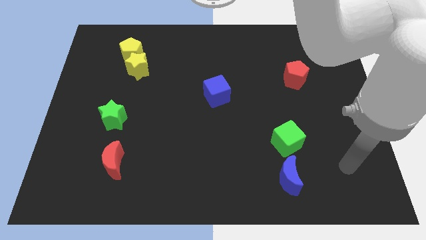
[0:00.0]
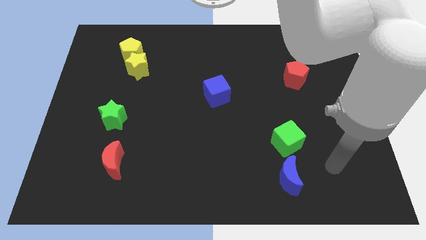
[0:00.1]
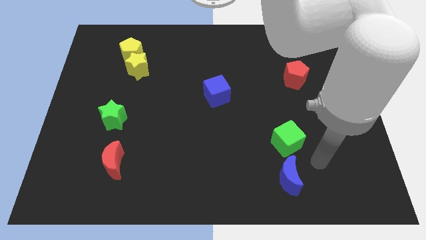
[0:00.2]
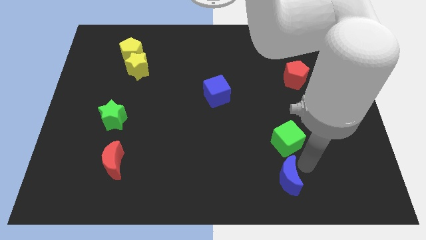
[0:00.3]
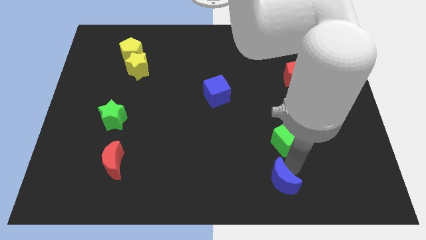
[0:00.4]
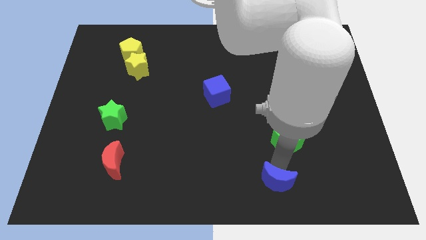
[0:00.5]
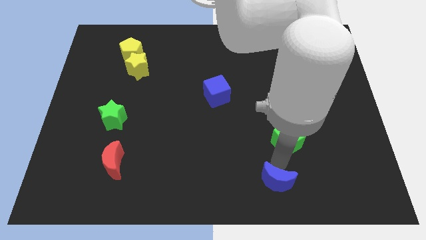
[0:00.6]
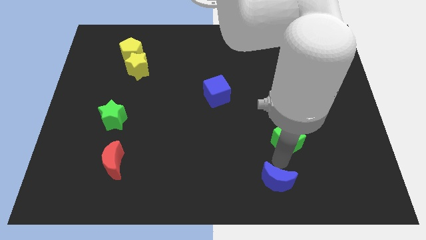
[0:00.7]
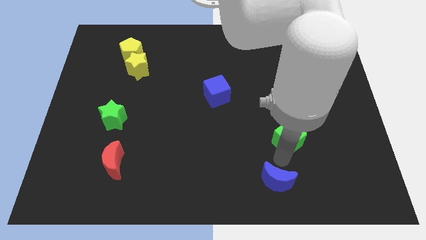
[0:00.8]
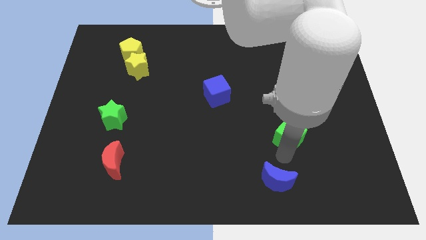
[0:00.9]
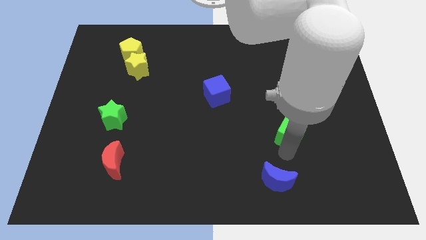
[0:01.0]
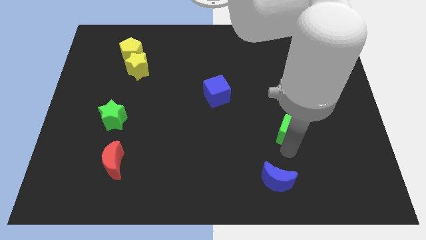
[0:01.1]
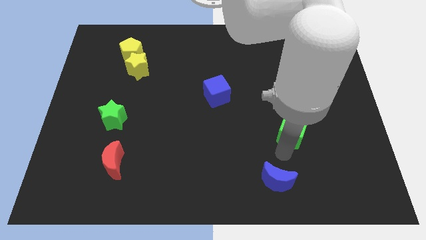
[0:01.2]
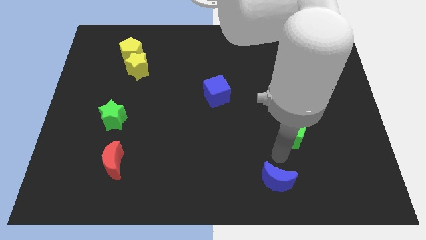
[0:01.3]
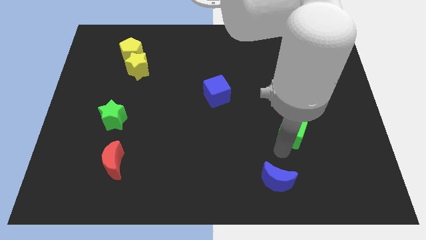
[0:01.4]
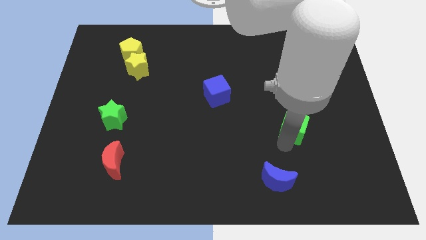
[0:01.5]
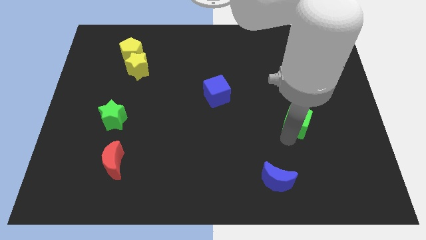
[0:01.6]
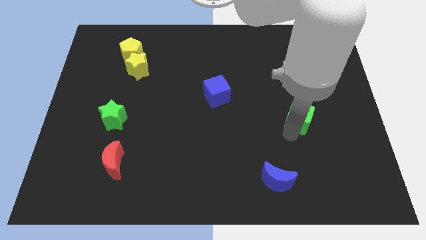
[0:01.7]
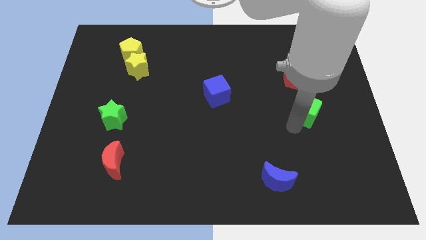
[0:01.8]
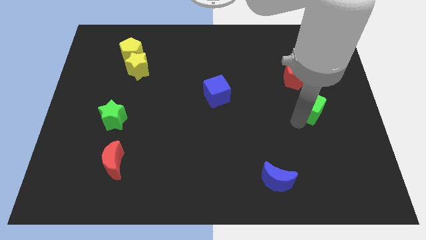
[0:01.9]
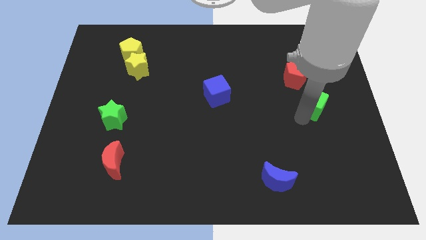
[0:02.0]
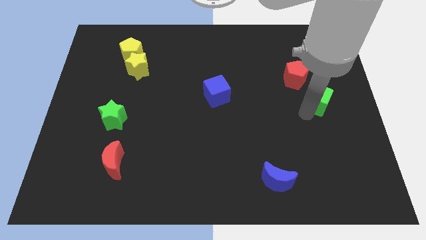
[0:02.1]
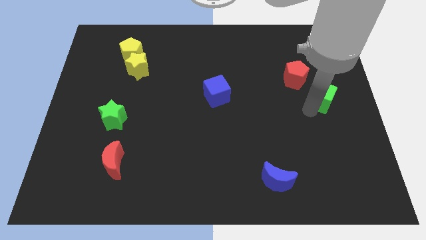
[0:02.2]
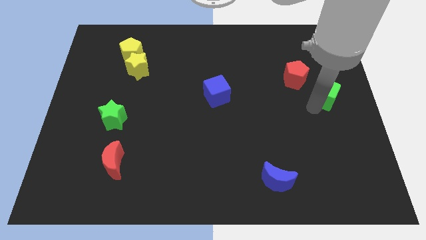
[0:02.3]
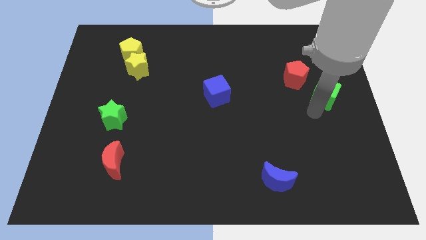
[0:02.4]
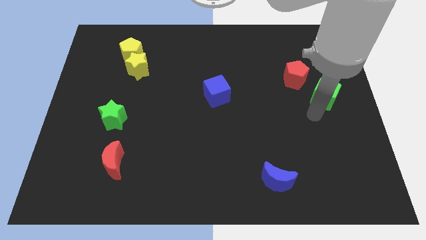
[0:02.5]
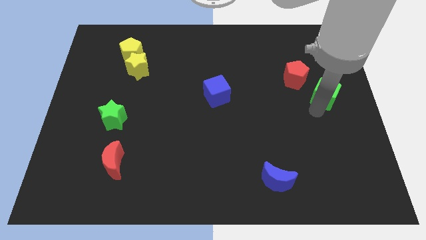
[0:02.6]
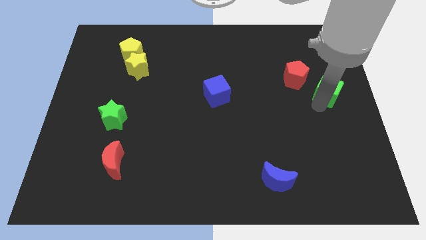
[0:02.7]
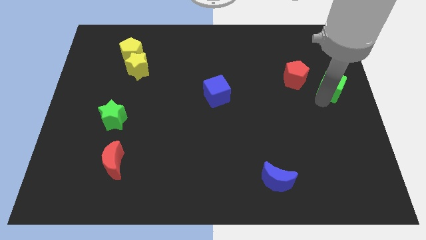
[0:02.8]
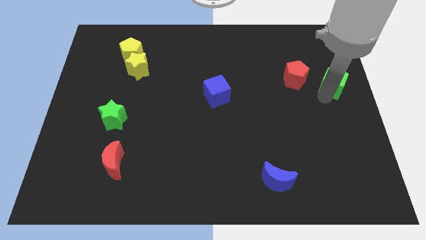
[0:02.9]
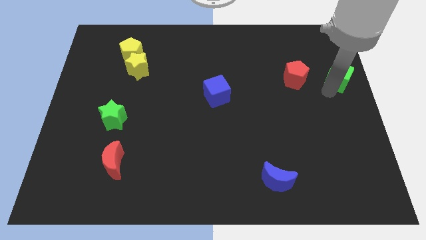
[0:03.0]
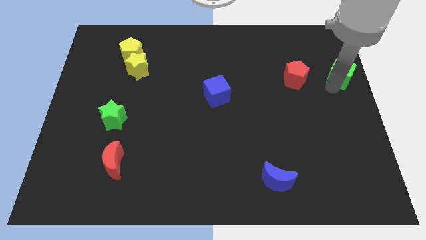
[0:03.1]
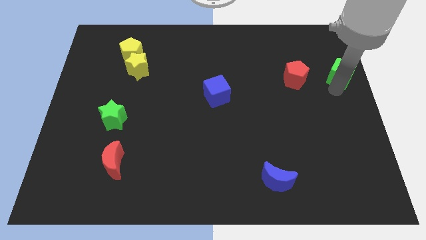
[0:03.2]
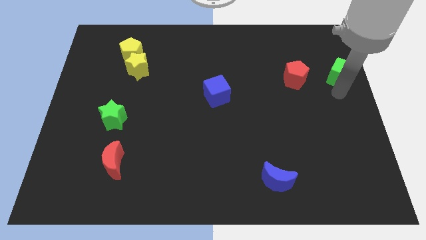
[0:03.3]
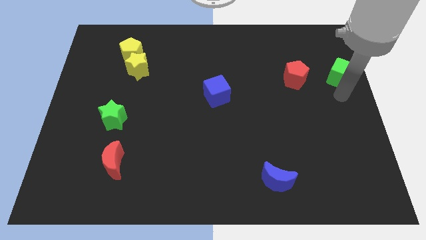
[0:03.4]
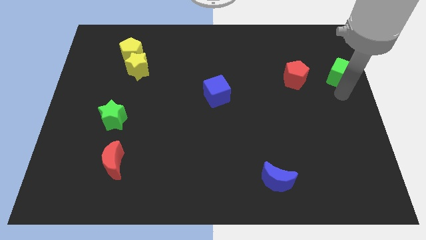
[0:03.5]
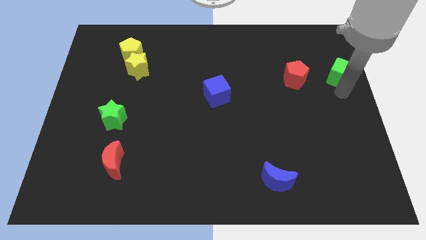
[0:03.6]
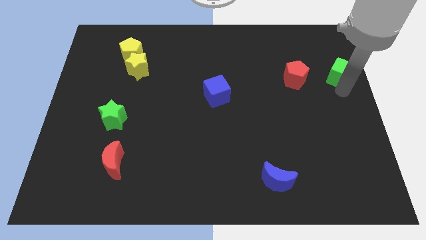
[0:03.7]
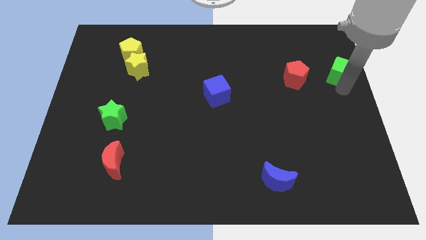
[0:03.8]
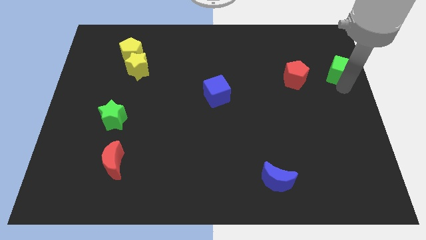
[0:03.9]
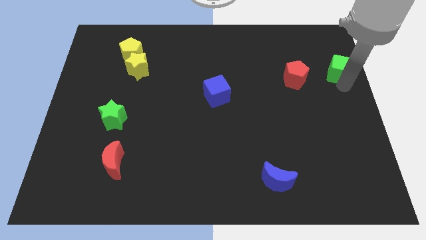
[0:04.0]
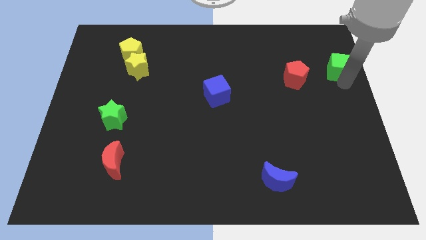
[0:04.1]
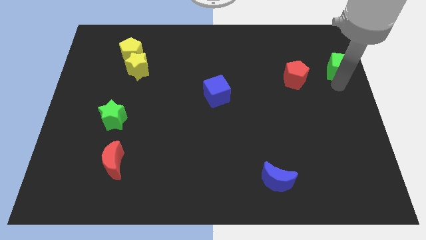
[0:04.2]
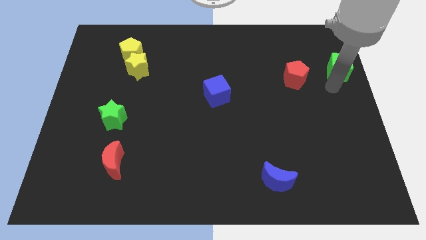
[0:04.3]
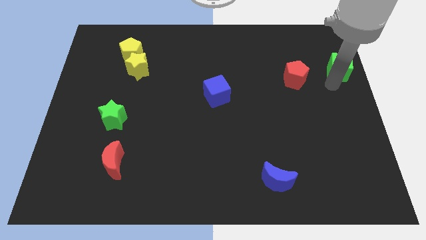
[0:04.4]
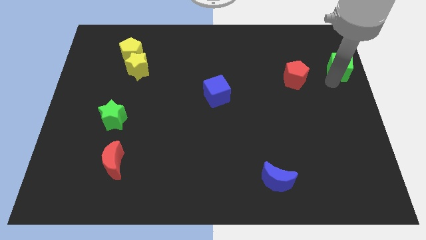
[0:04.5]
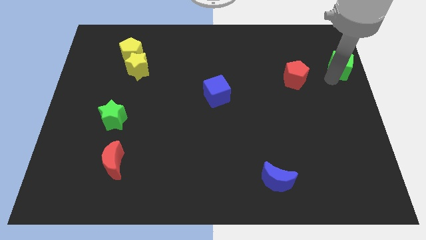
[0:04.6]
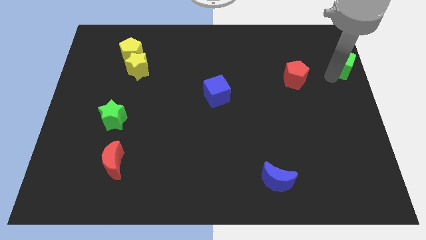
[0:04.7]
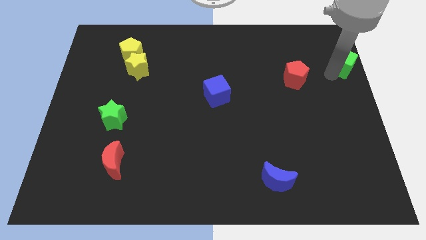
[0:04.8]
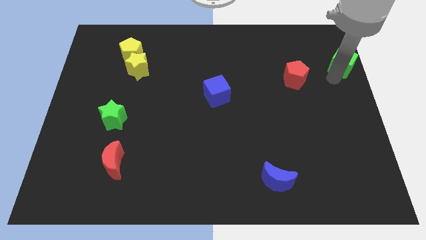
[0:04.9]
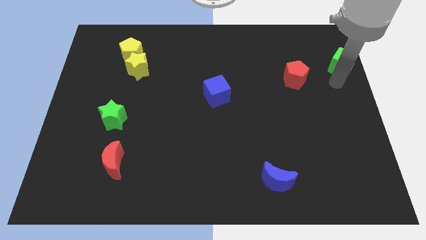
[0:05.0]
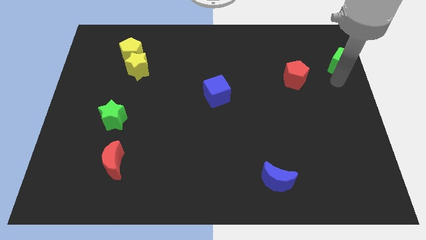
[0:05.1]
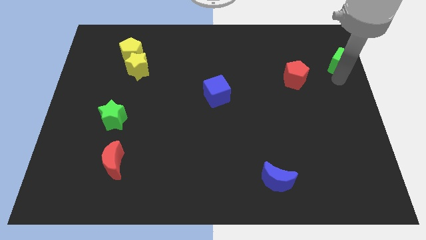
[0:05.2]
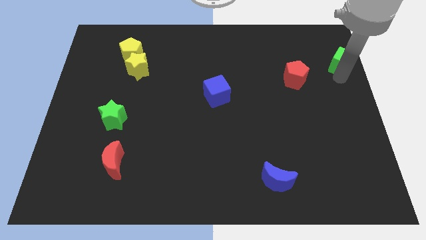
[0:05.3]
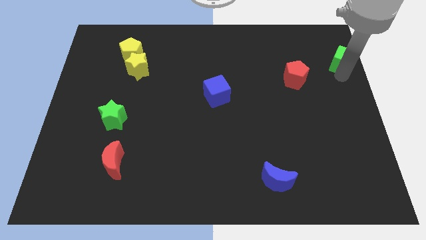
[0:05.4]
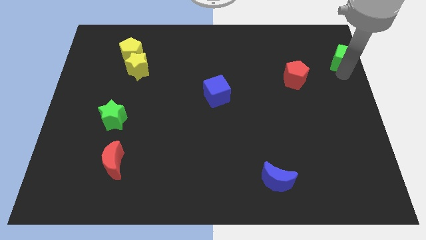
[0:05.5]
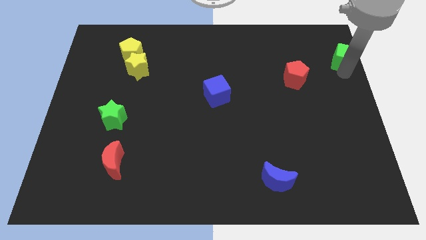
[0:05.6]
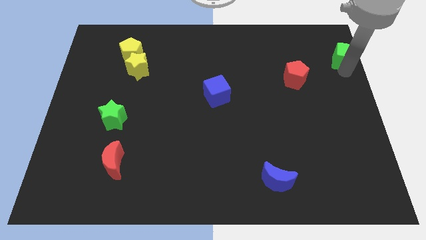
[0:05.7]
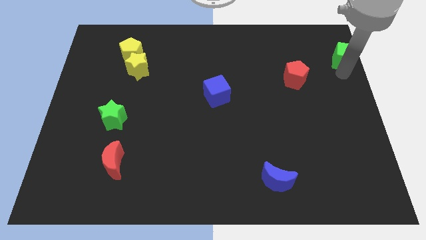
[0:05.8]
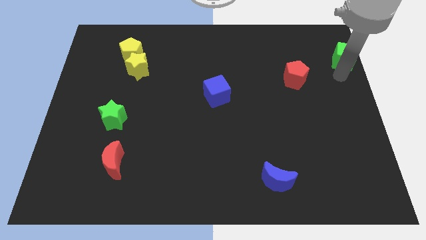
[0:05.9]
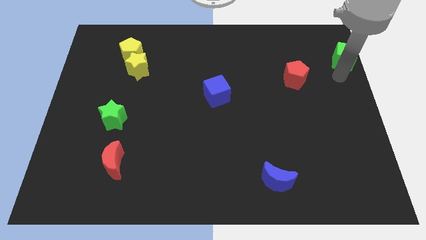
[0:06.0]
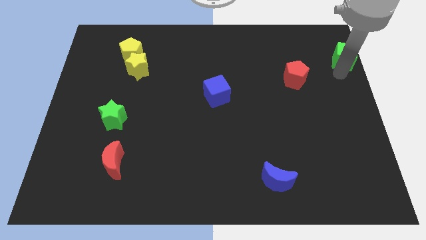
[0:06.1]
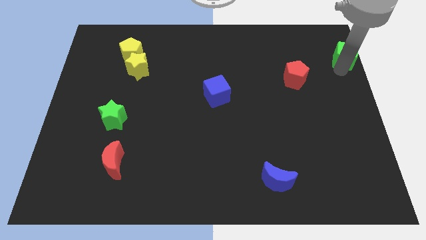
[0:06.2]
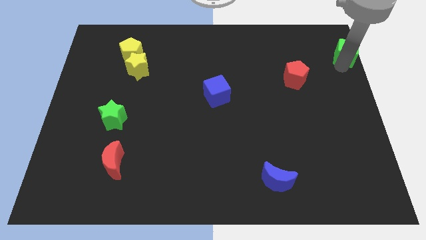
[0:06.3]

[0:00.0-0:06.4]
move the green cube to the top right of the board
